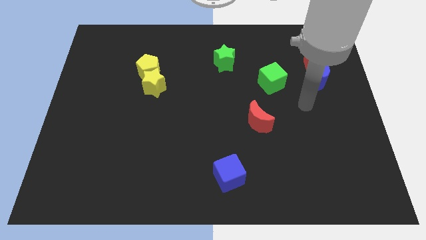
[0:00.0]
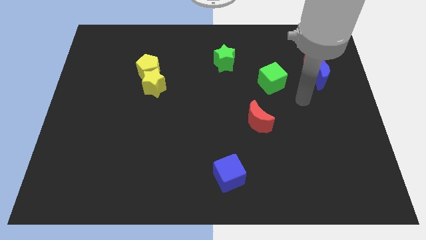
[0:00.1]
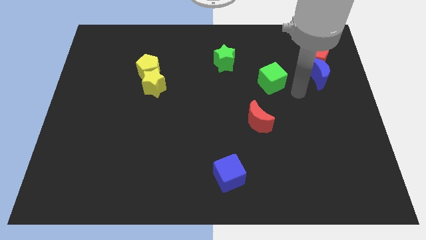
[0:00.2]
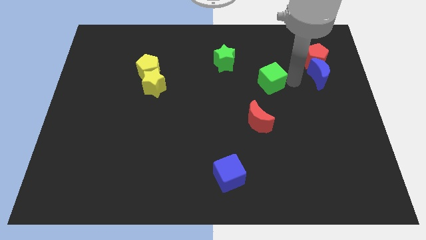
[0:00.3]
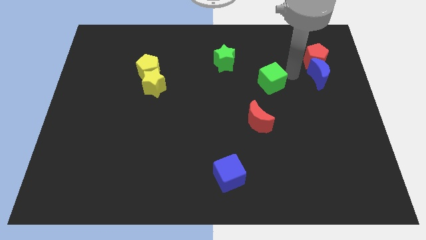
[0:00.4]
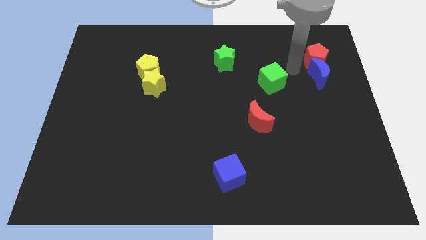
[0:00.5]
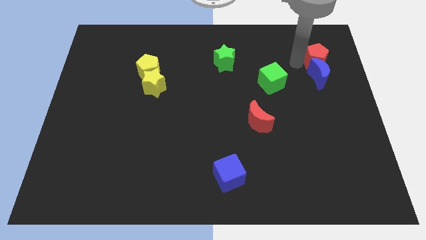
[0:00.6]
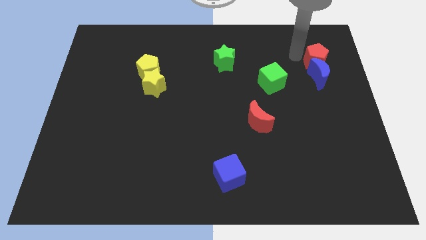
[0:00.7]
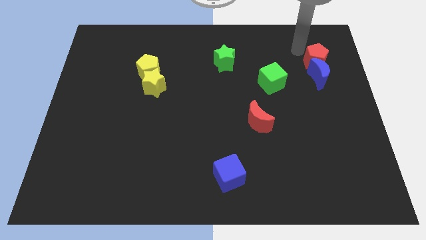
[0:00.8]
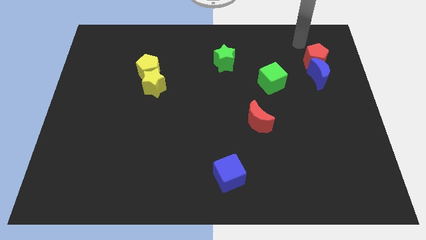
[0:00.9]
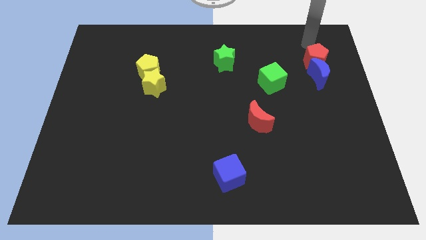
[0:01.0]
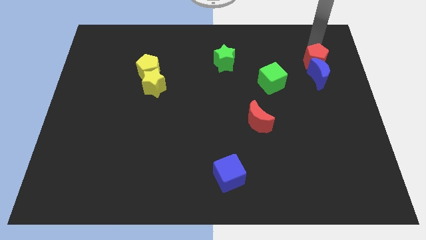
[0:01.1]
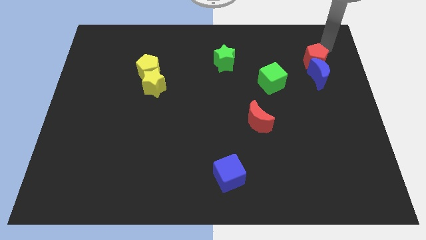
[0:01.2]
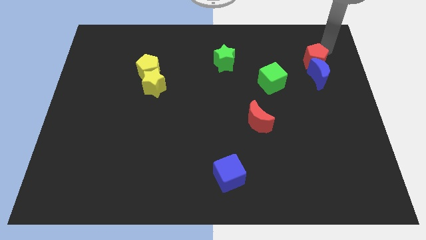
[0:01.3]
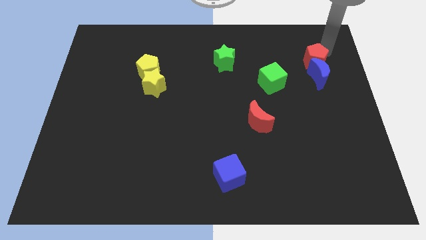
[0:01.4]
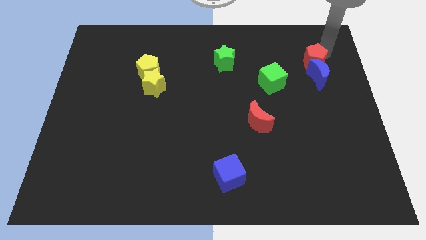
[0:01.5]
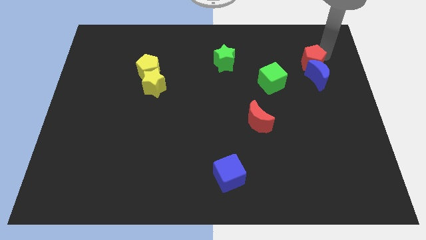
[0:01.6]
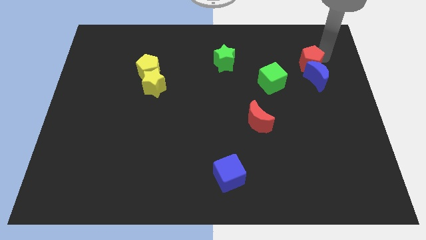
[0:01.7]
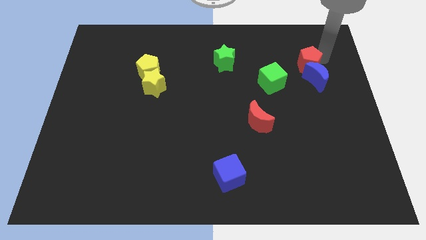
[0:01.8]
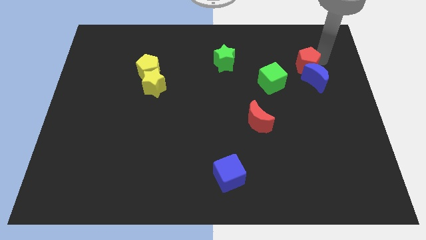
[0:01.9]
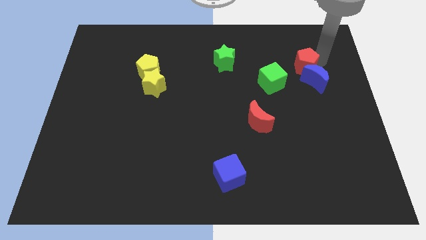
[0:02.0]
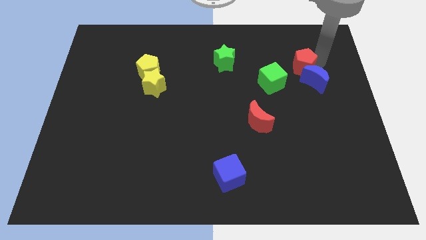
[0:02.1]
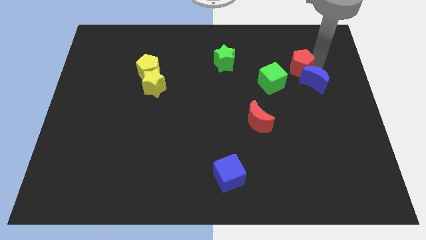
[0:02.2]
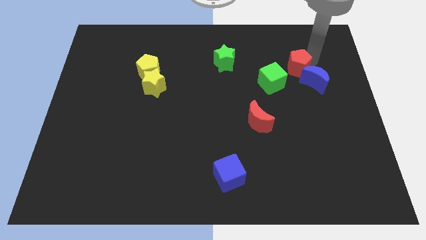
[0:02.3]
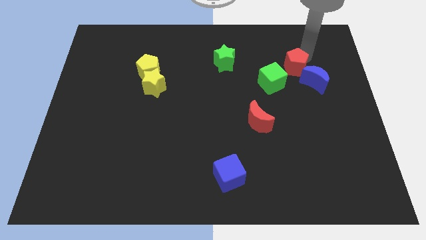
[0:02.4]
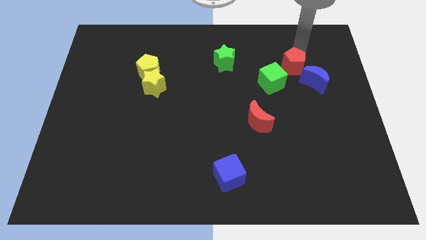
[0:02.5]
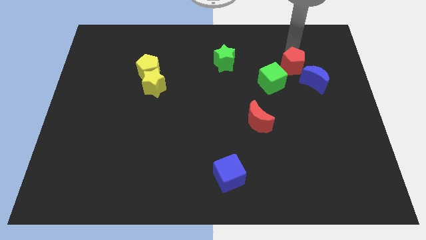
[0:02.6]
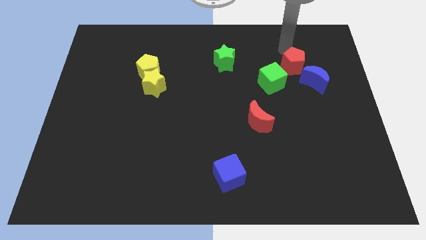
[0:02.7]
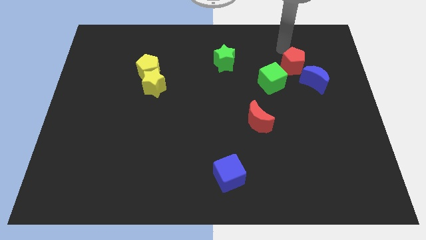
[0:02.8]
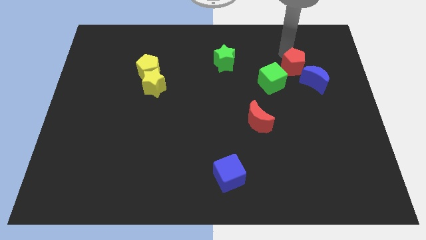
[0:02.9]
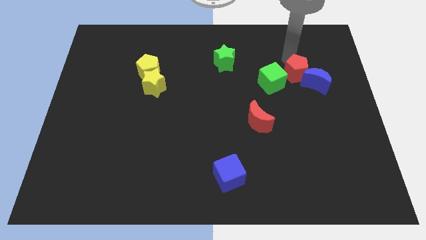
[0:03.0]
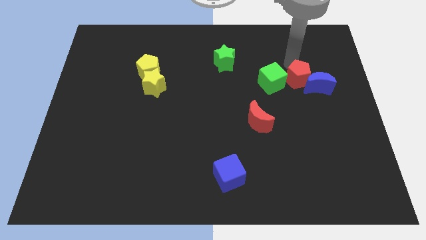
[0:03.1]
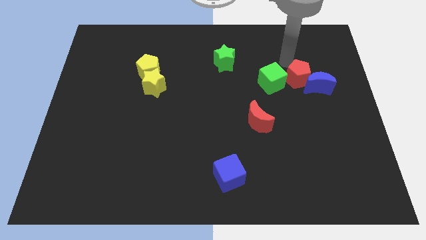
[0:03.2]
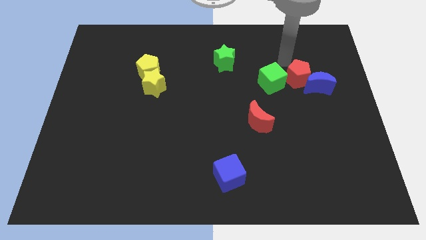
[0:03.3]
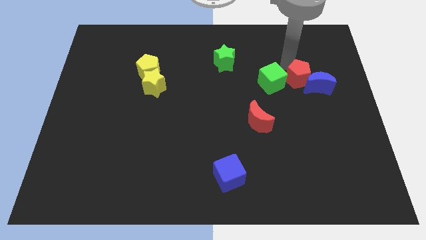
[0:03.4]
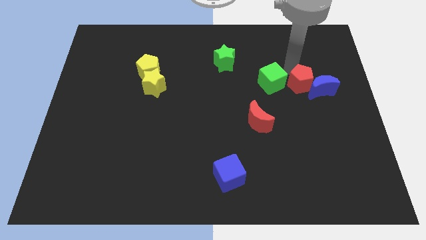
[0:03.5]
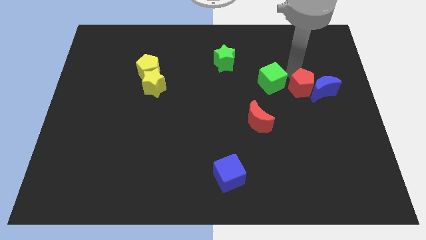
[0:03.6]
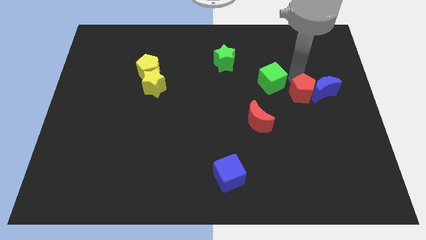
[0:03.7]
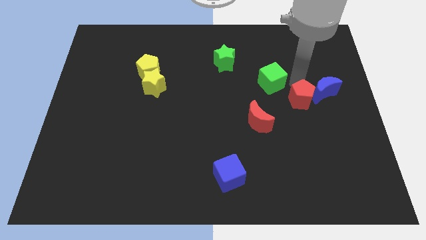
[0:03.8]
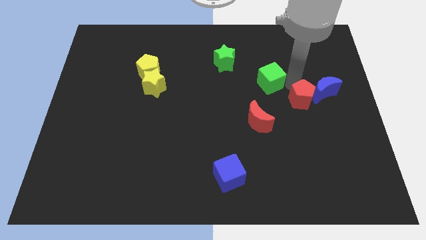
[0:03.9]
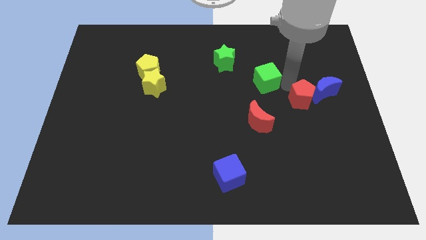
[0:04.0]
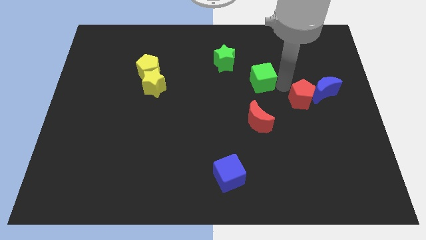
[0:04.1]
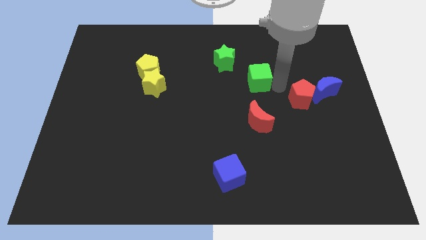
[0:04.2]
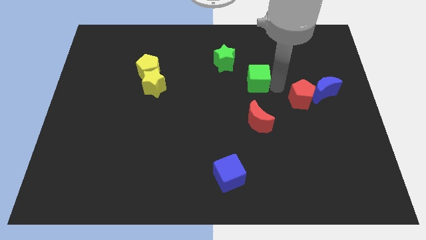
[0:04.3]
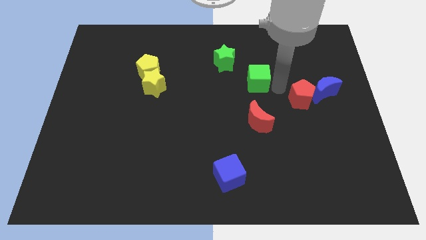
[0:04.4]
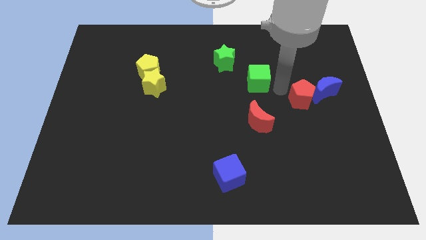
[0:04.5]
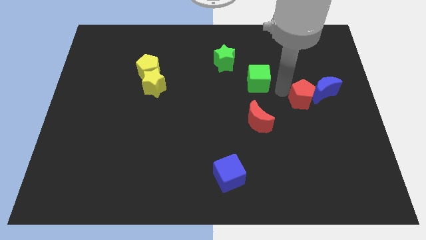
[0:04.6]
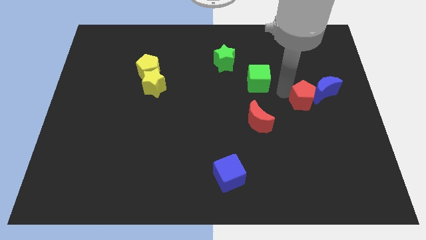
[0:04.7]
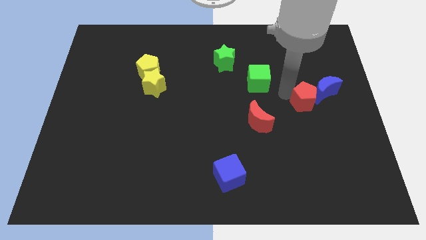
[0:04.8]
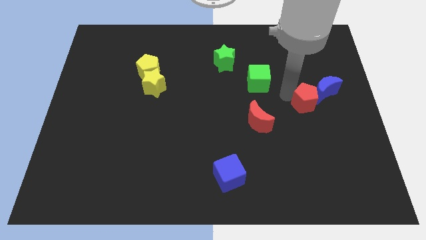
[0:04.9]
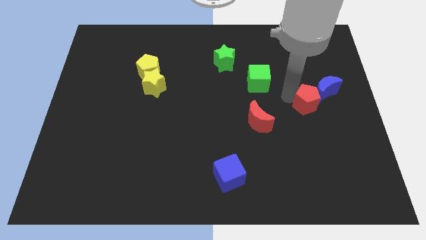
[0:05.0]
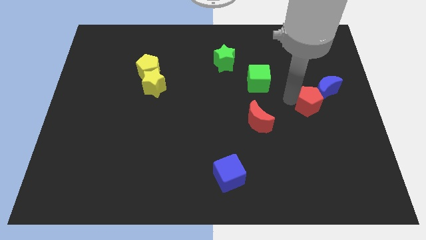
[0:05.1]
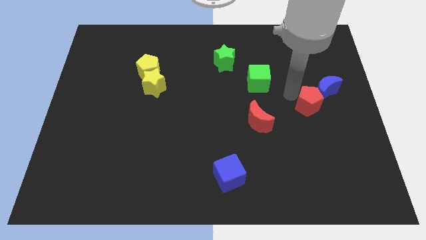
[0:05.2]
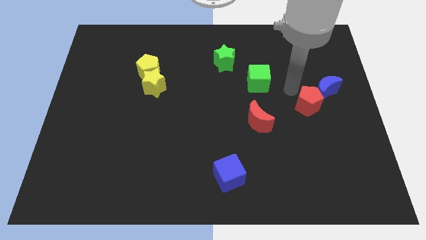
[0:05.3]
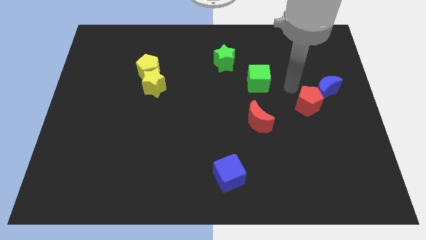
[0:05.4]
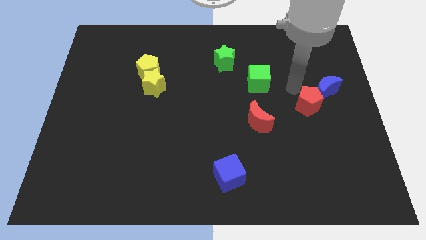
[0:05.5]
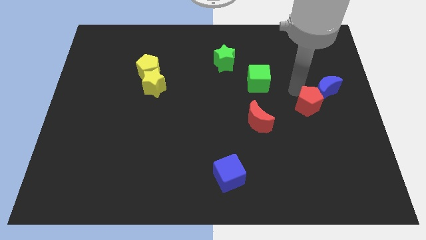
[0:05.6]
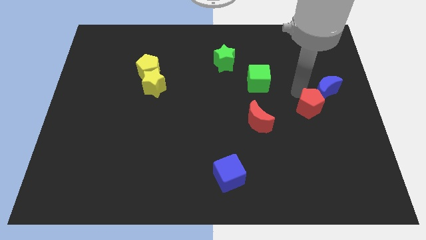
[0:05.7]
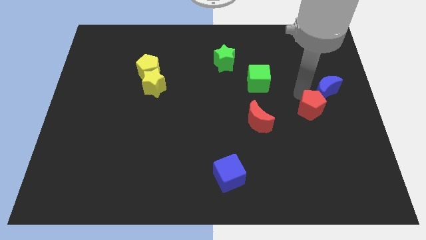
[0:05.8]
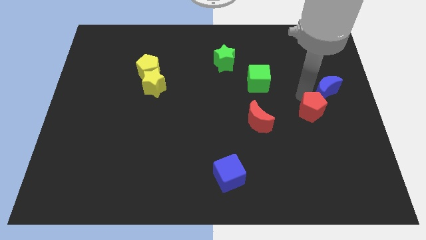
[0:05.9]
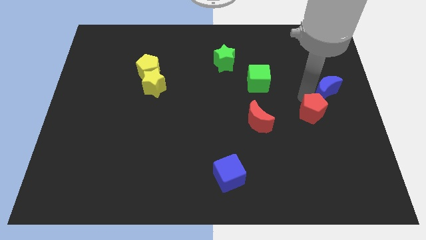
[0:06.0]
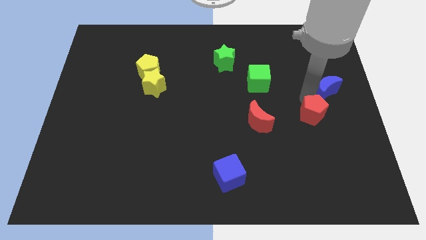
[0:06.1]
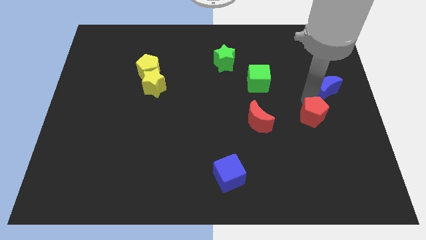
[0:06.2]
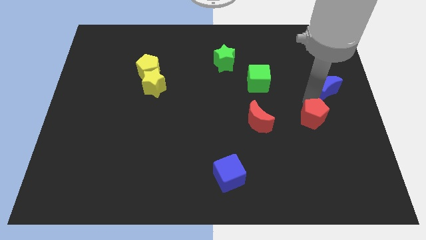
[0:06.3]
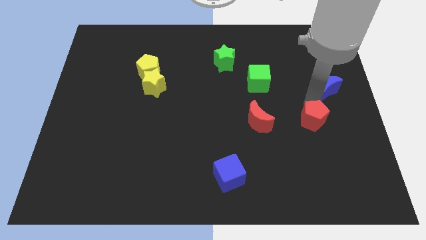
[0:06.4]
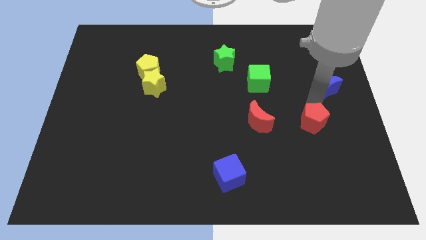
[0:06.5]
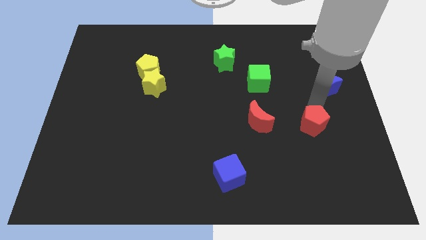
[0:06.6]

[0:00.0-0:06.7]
slide the red pentagon down

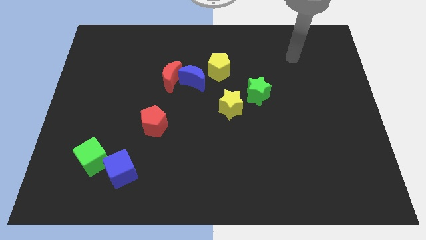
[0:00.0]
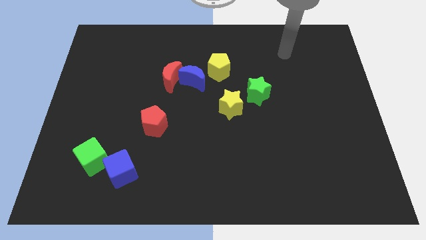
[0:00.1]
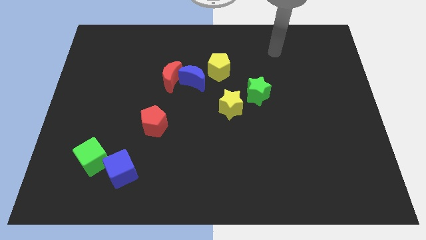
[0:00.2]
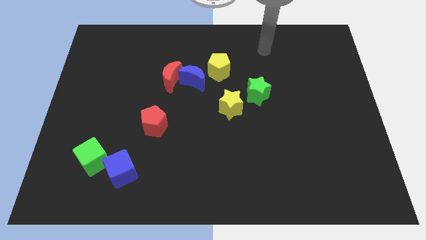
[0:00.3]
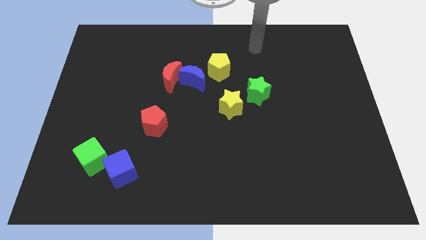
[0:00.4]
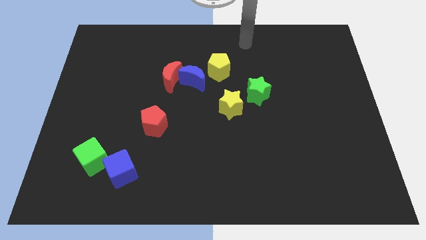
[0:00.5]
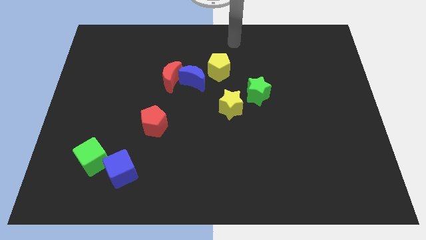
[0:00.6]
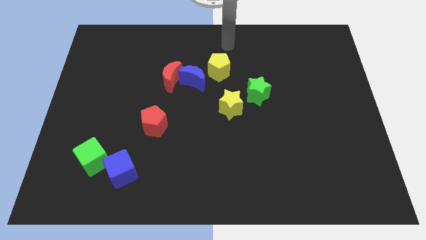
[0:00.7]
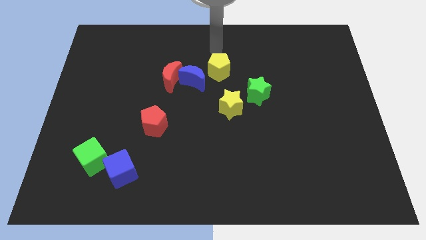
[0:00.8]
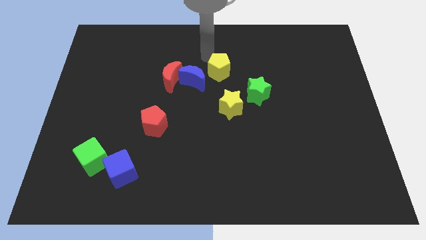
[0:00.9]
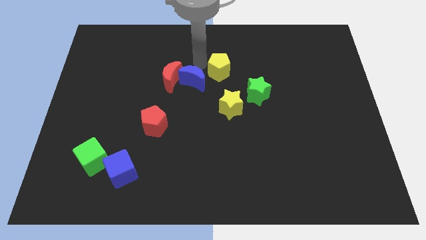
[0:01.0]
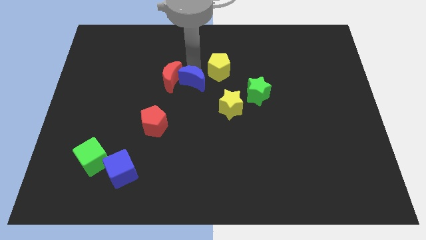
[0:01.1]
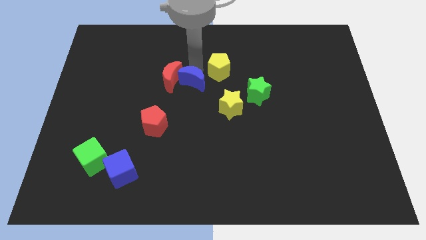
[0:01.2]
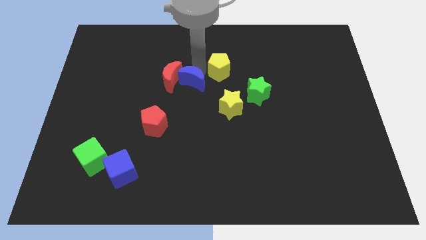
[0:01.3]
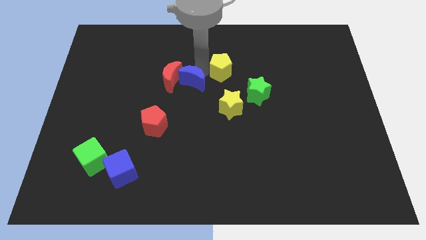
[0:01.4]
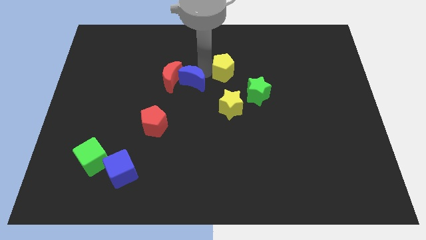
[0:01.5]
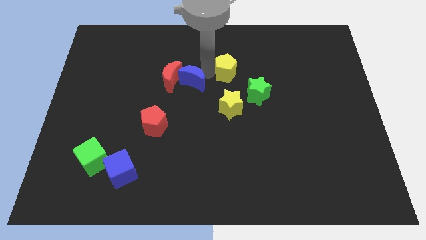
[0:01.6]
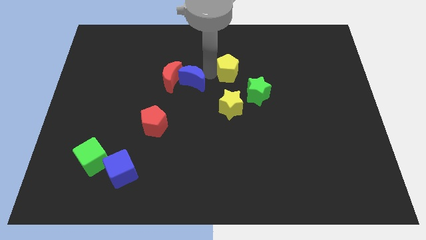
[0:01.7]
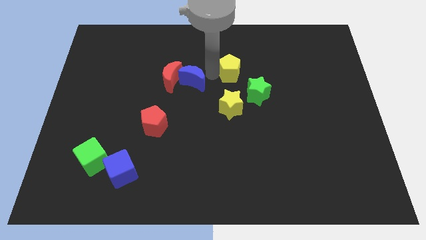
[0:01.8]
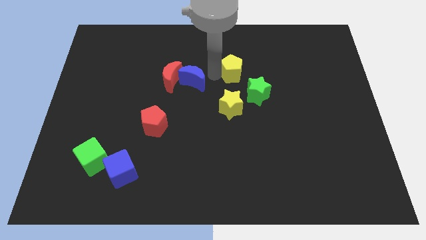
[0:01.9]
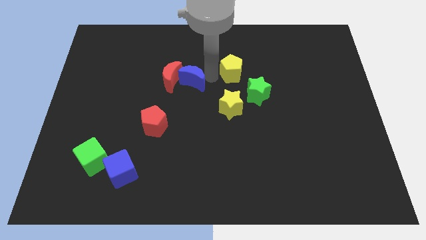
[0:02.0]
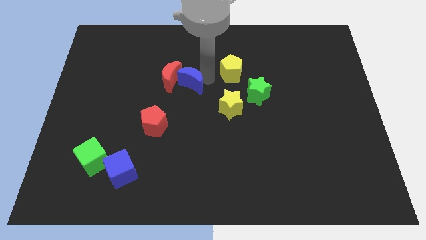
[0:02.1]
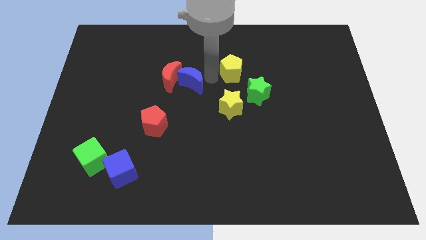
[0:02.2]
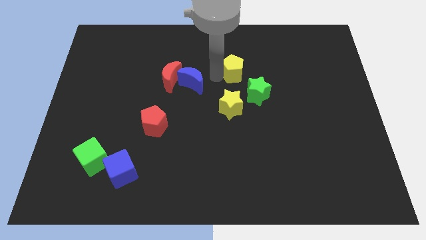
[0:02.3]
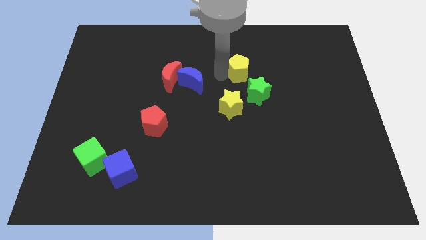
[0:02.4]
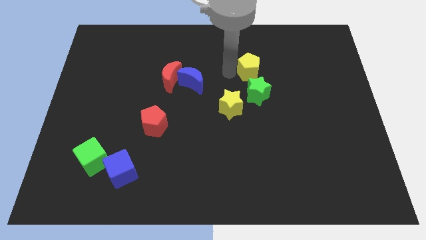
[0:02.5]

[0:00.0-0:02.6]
slightly push the yellow pentagon to the right
